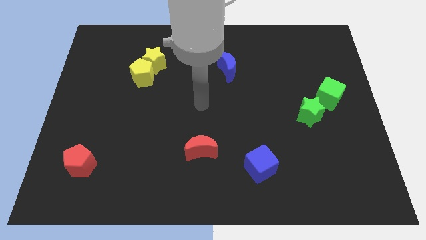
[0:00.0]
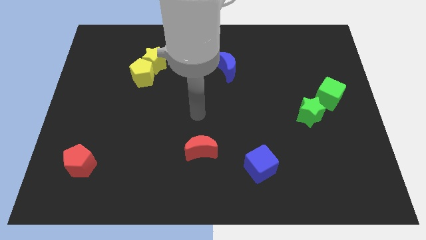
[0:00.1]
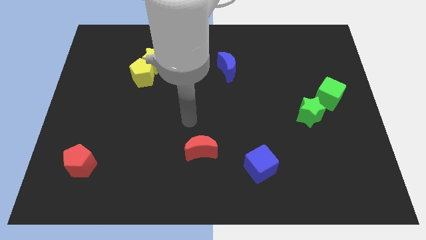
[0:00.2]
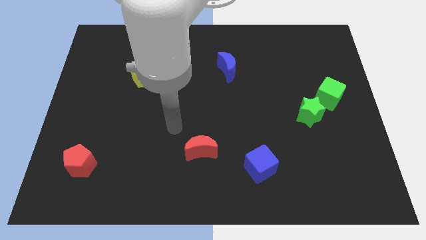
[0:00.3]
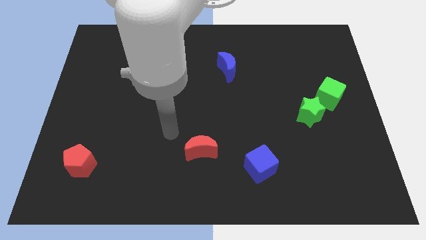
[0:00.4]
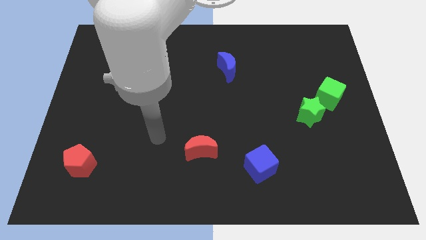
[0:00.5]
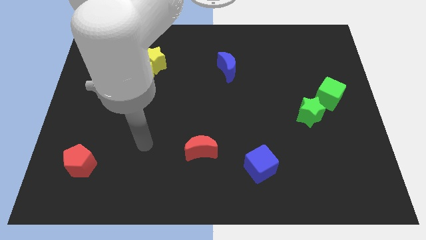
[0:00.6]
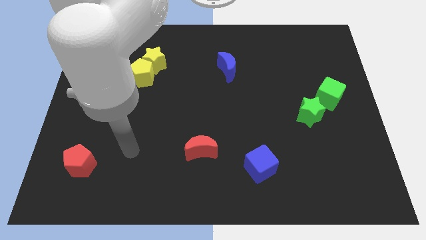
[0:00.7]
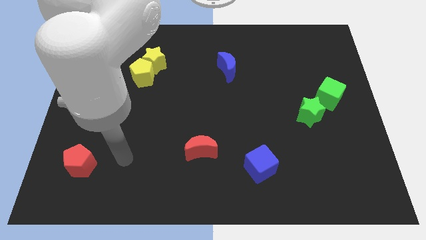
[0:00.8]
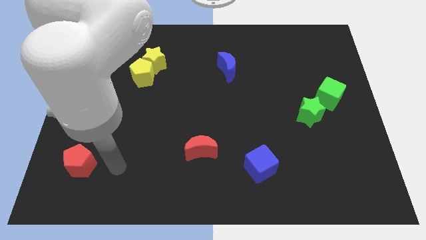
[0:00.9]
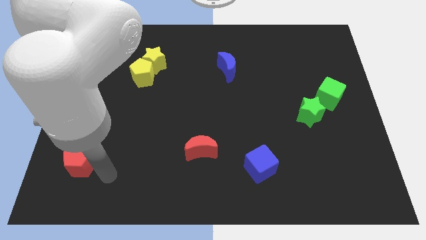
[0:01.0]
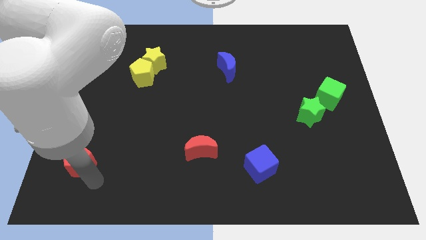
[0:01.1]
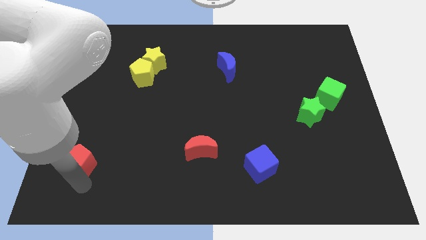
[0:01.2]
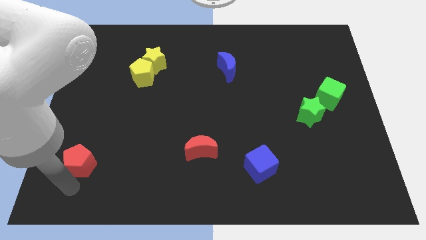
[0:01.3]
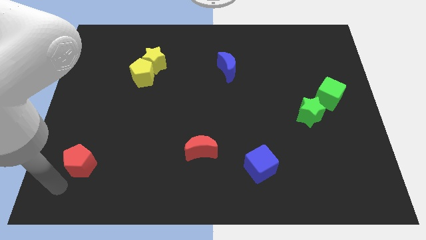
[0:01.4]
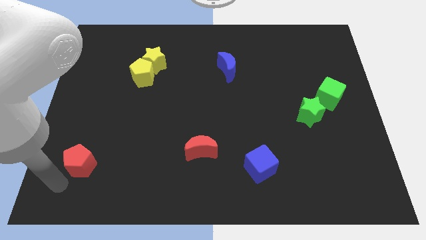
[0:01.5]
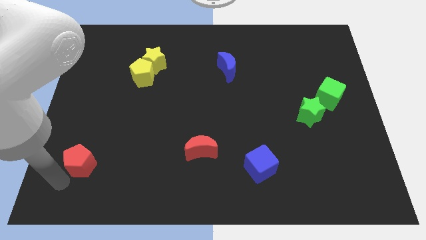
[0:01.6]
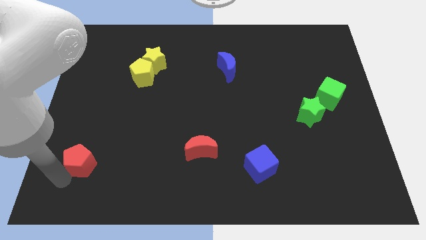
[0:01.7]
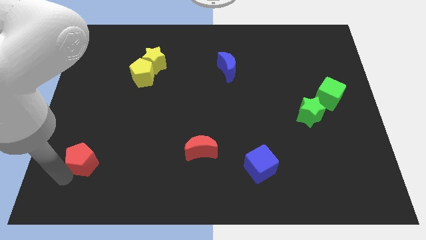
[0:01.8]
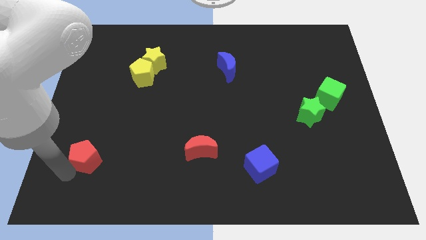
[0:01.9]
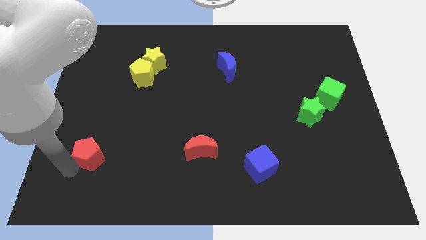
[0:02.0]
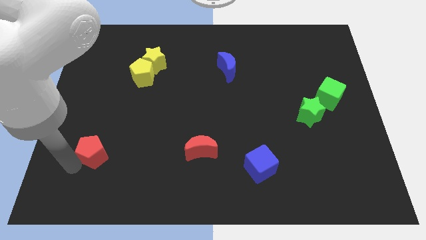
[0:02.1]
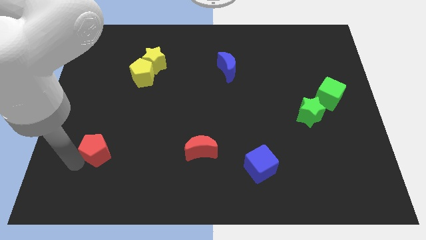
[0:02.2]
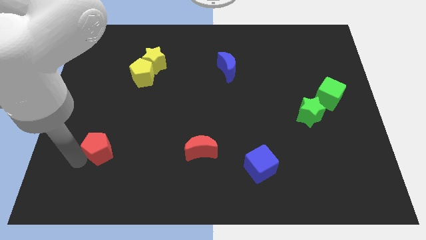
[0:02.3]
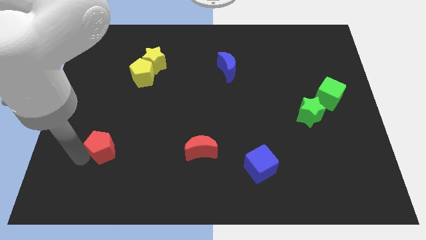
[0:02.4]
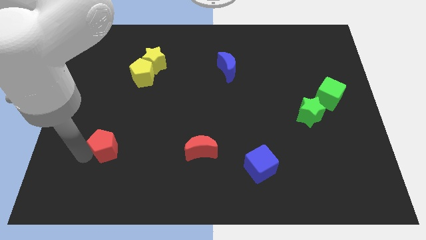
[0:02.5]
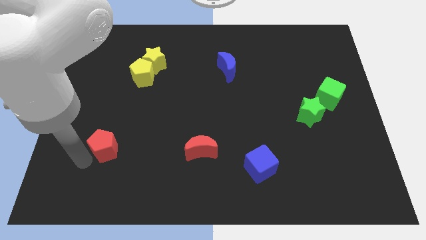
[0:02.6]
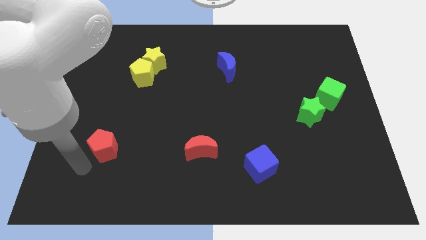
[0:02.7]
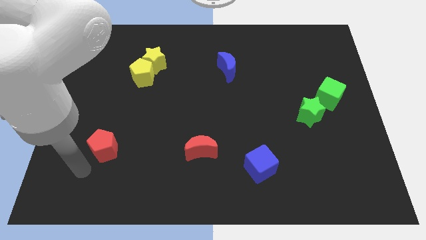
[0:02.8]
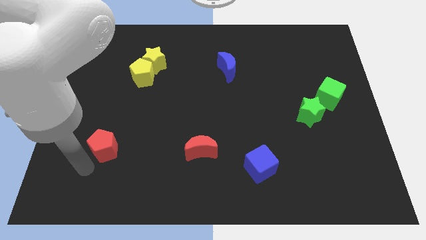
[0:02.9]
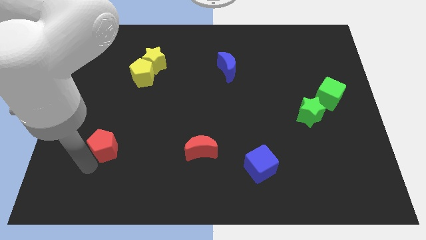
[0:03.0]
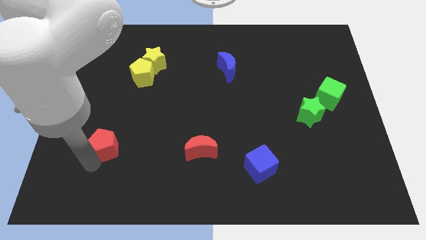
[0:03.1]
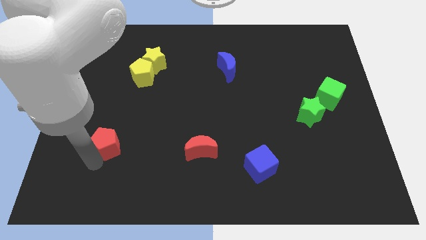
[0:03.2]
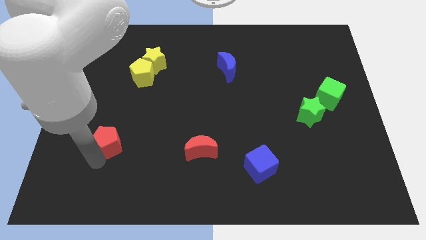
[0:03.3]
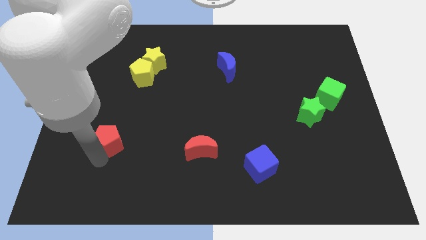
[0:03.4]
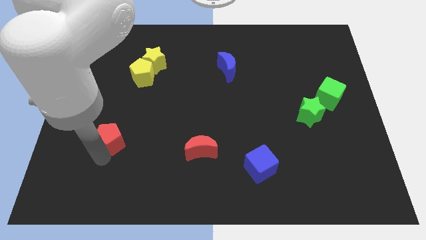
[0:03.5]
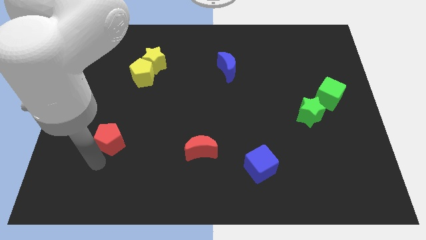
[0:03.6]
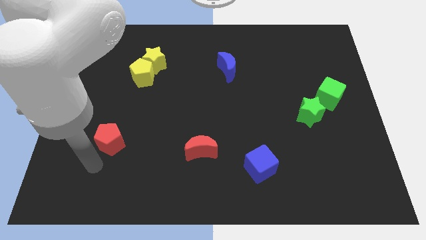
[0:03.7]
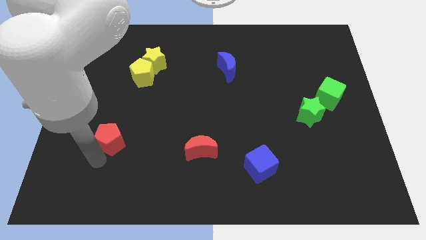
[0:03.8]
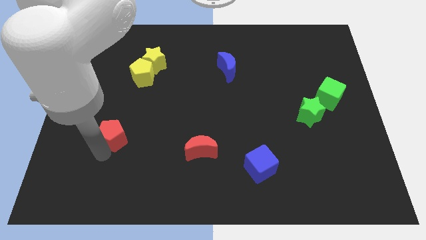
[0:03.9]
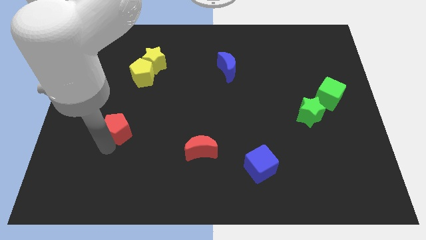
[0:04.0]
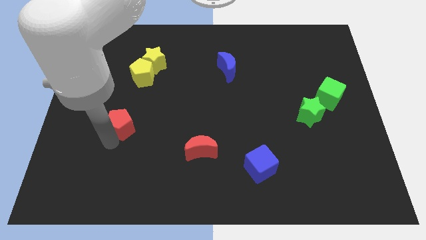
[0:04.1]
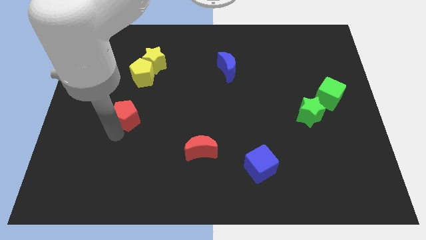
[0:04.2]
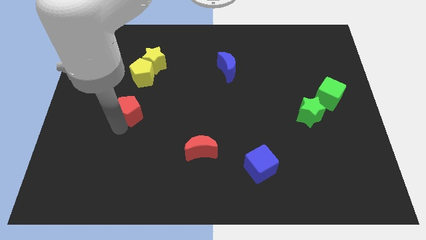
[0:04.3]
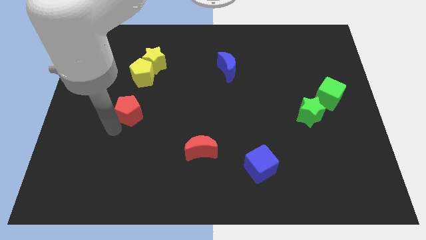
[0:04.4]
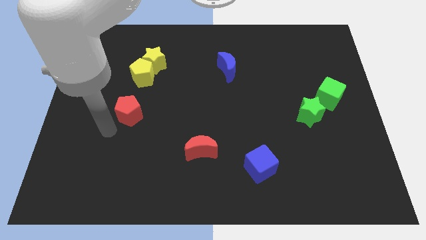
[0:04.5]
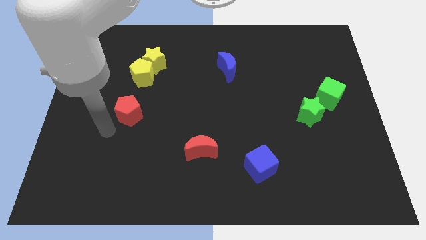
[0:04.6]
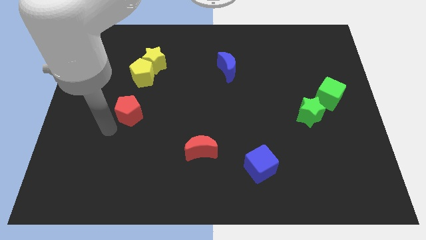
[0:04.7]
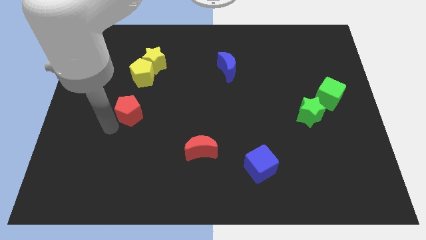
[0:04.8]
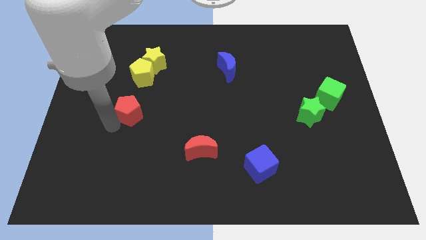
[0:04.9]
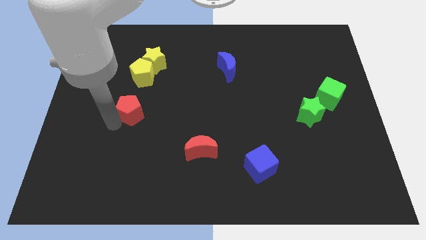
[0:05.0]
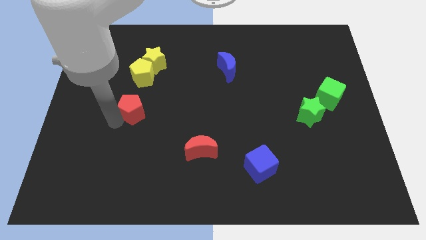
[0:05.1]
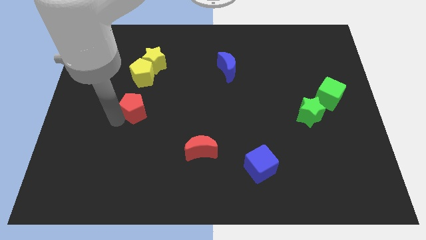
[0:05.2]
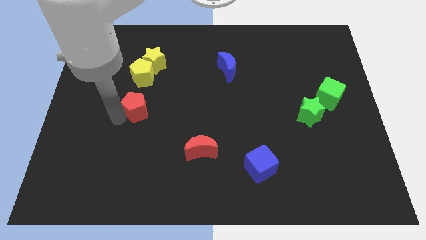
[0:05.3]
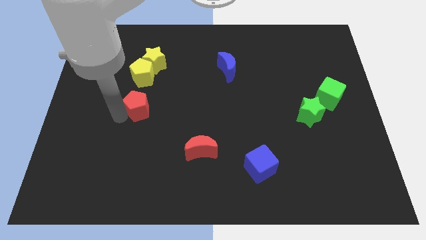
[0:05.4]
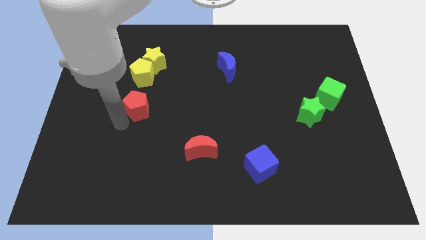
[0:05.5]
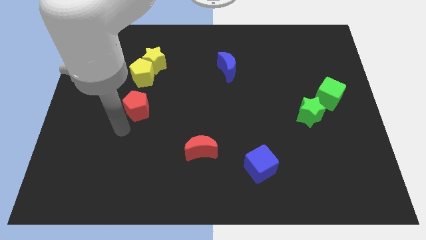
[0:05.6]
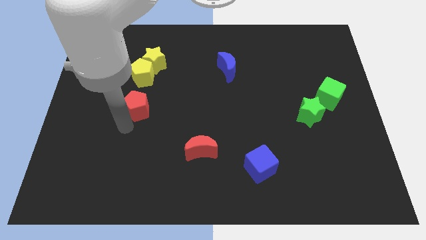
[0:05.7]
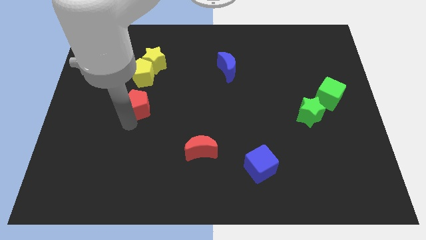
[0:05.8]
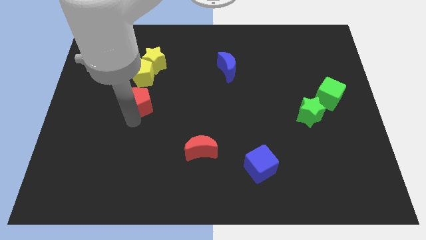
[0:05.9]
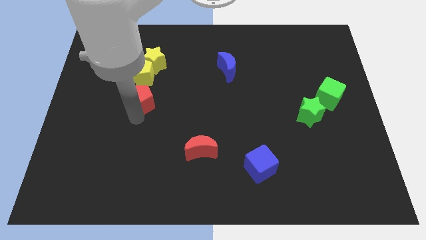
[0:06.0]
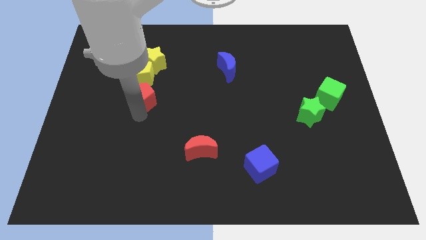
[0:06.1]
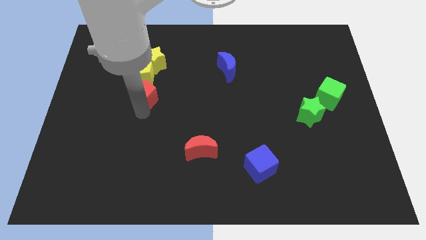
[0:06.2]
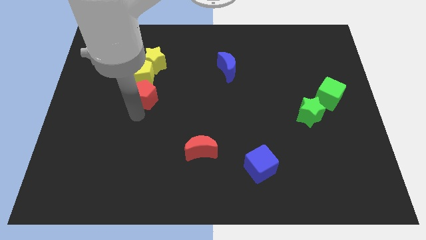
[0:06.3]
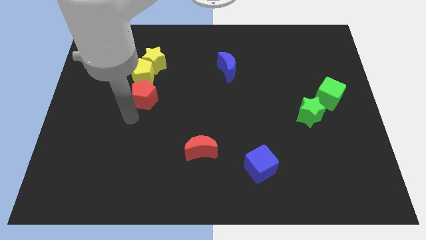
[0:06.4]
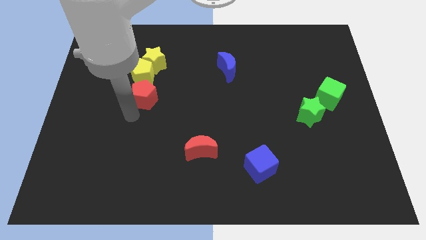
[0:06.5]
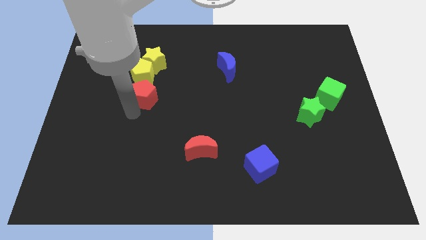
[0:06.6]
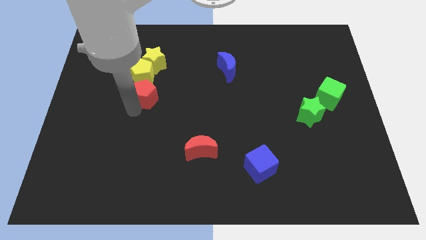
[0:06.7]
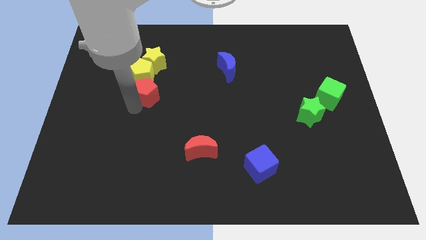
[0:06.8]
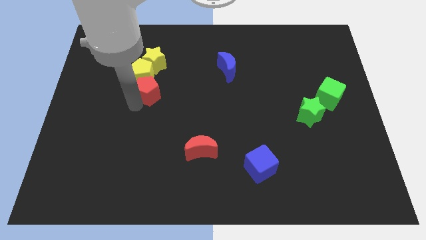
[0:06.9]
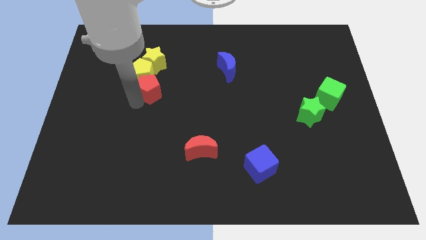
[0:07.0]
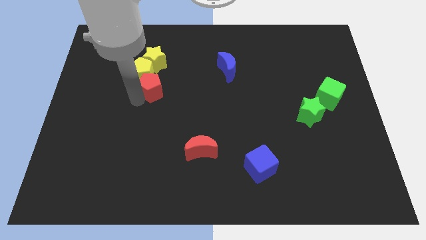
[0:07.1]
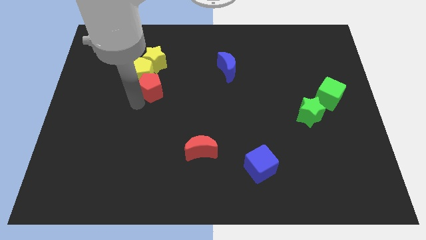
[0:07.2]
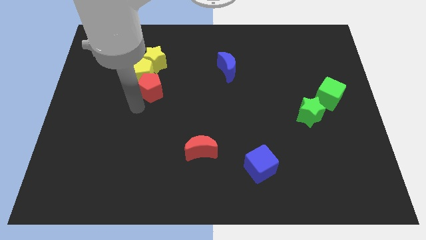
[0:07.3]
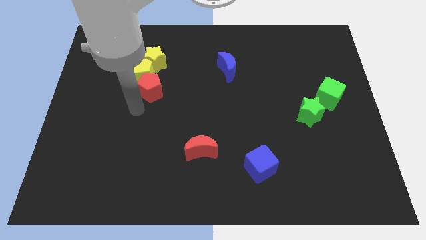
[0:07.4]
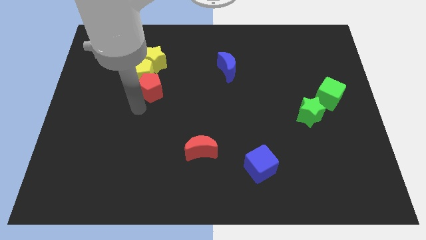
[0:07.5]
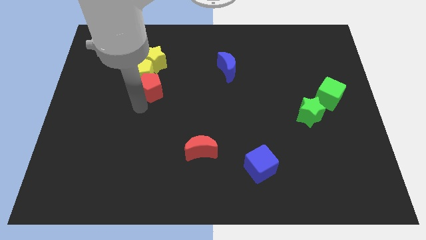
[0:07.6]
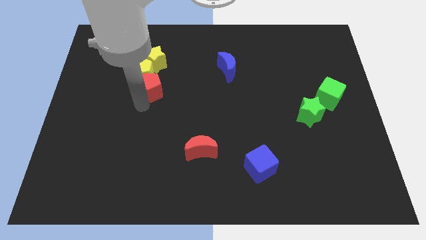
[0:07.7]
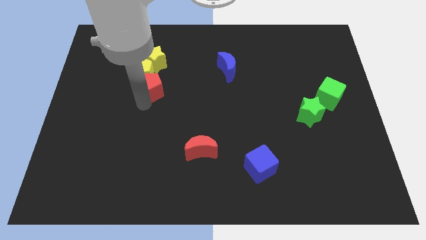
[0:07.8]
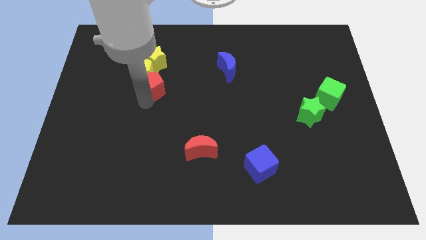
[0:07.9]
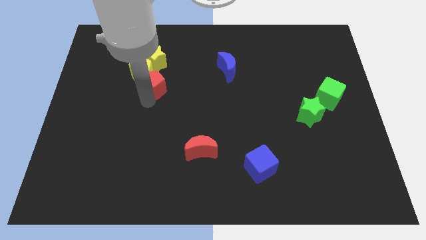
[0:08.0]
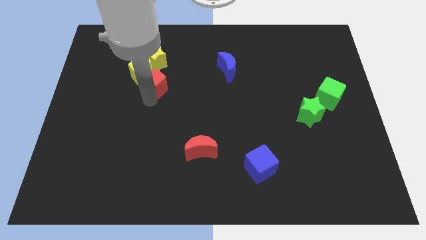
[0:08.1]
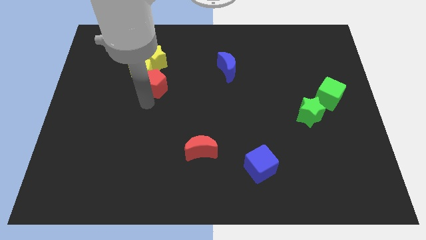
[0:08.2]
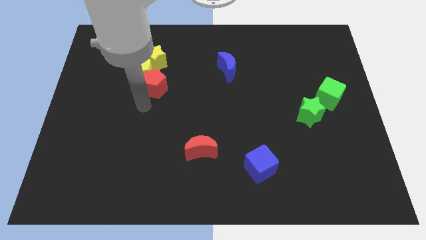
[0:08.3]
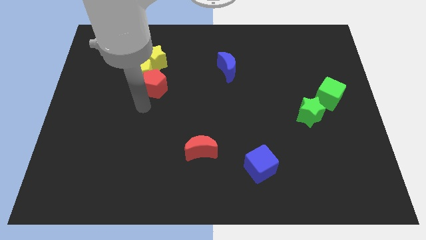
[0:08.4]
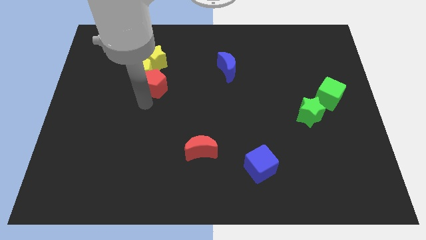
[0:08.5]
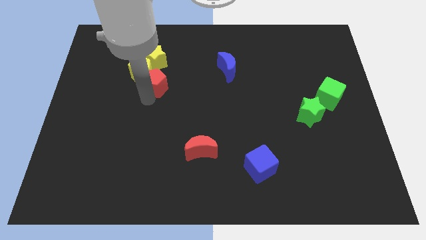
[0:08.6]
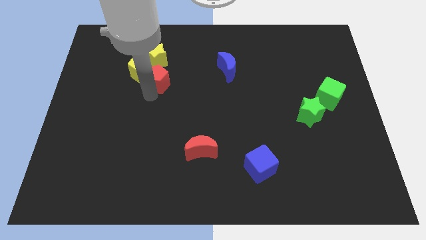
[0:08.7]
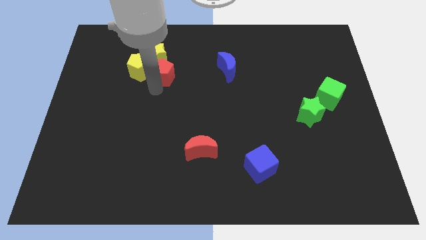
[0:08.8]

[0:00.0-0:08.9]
push the red pentagon to the yellow star
